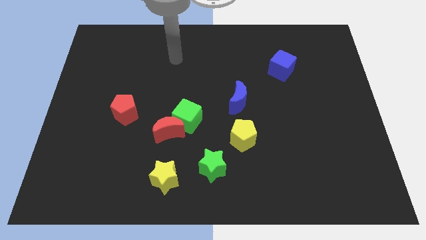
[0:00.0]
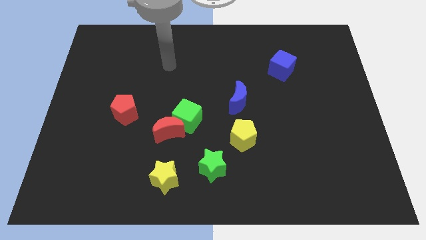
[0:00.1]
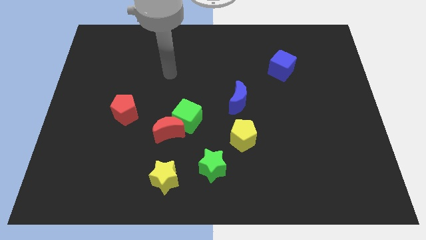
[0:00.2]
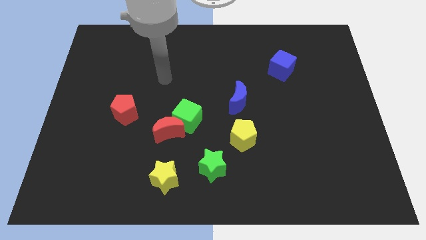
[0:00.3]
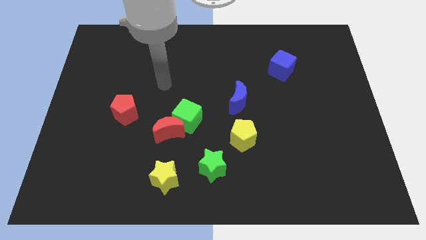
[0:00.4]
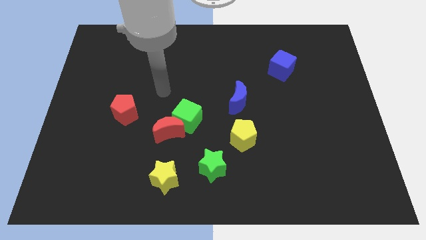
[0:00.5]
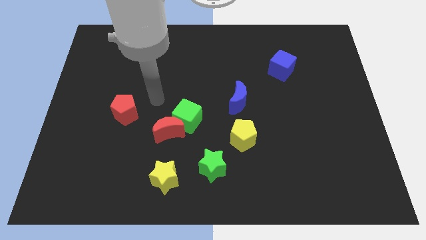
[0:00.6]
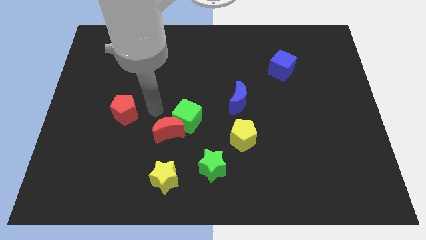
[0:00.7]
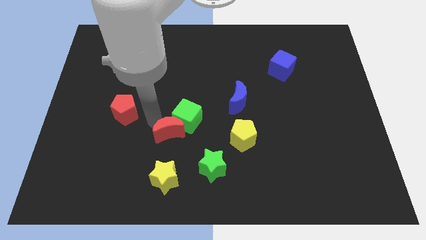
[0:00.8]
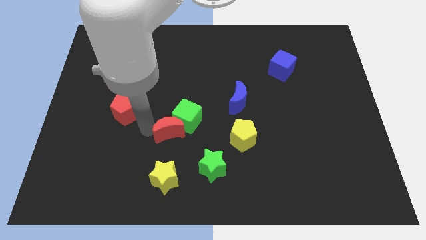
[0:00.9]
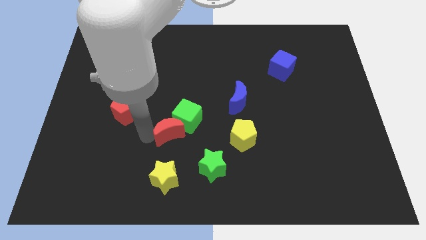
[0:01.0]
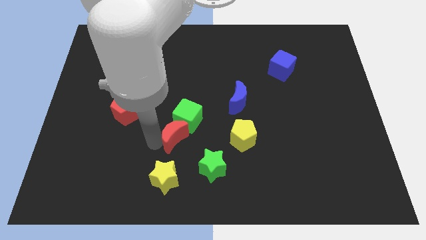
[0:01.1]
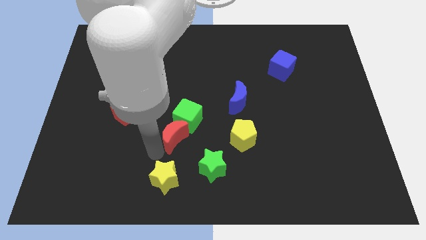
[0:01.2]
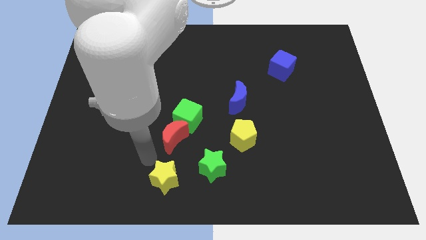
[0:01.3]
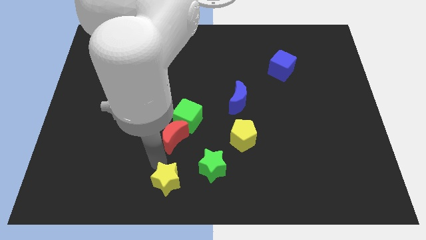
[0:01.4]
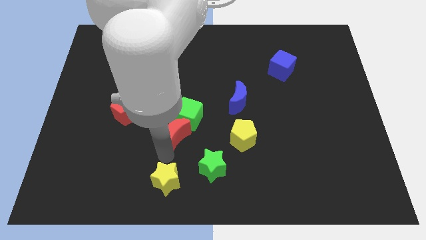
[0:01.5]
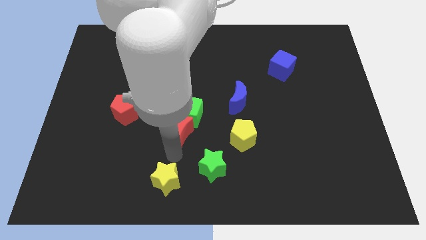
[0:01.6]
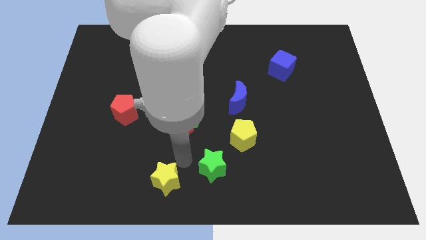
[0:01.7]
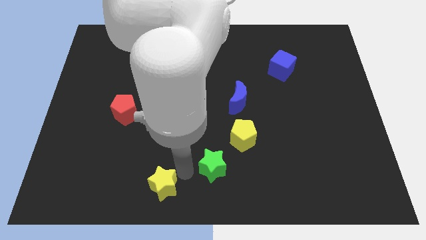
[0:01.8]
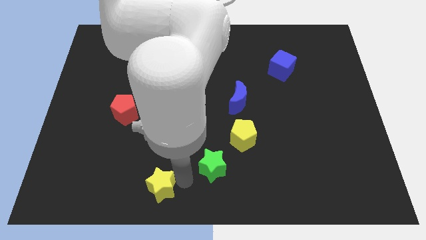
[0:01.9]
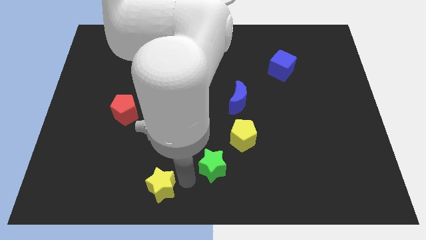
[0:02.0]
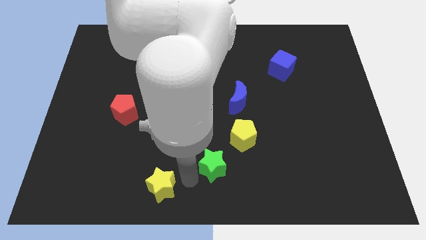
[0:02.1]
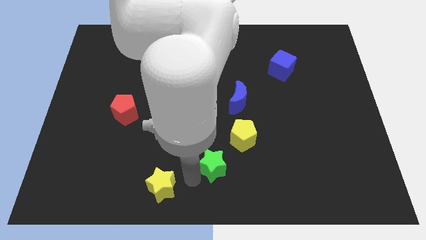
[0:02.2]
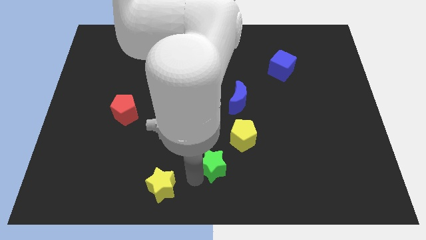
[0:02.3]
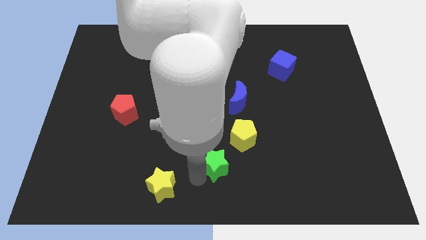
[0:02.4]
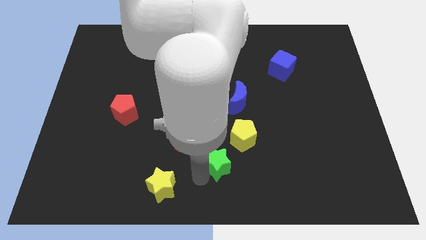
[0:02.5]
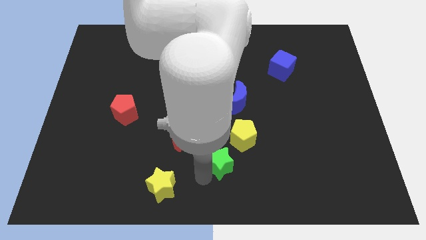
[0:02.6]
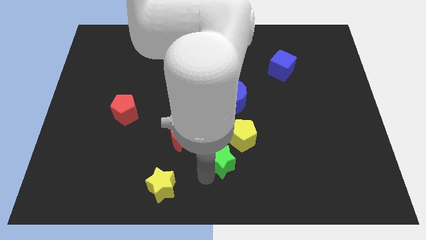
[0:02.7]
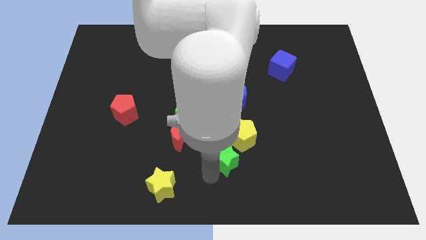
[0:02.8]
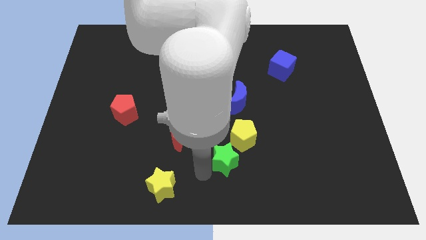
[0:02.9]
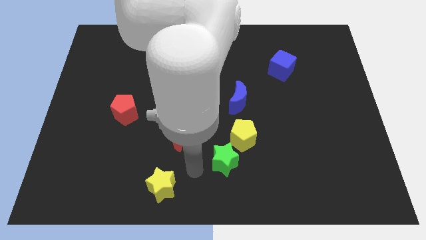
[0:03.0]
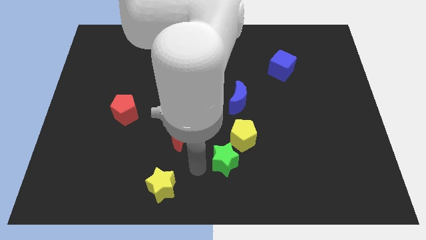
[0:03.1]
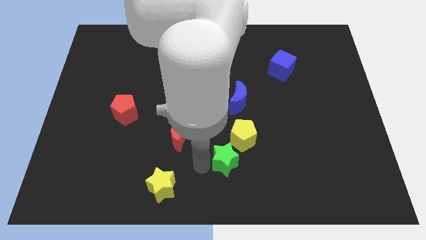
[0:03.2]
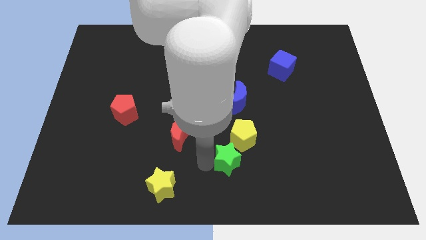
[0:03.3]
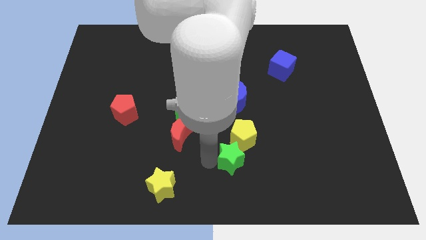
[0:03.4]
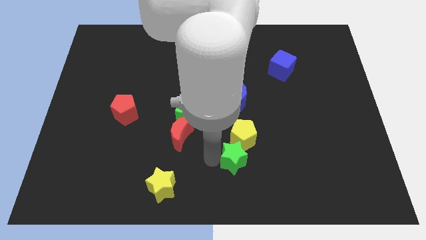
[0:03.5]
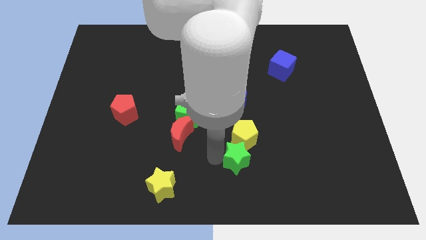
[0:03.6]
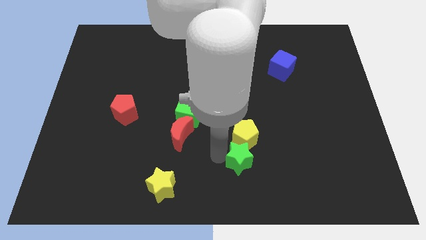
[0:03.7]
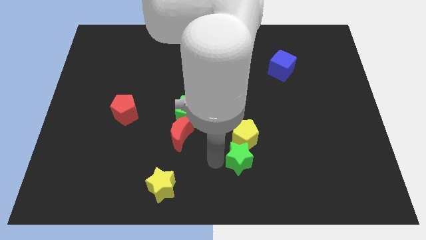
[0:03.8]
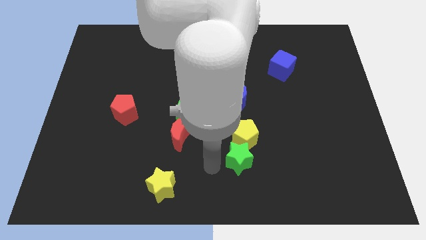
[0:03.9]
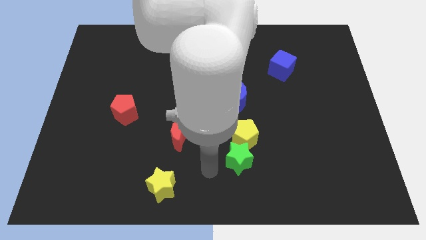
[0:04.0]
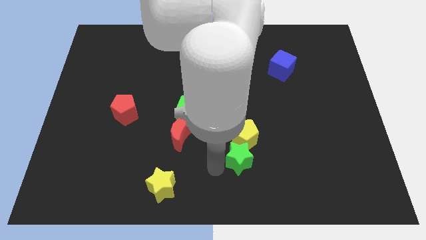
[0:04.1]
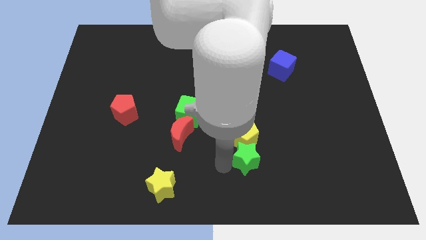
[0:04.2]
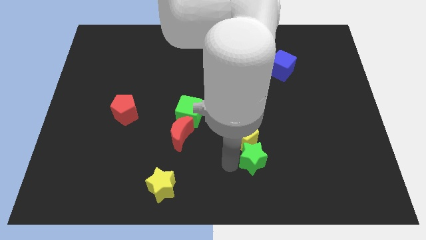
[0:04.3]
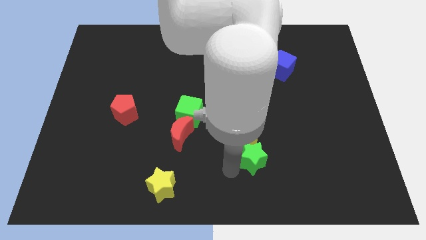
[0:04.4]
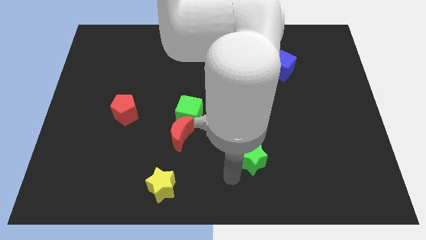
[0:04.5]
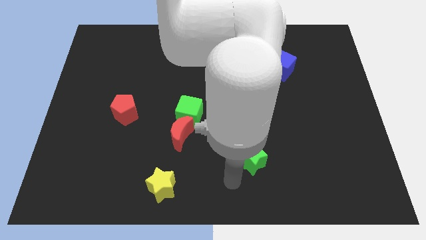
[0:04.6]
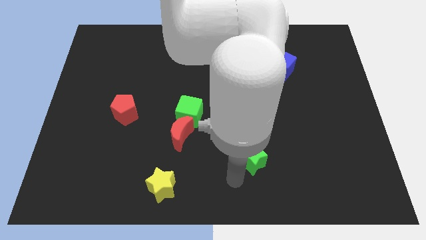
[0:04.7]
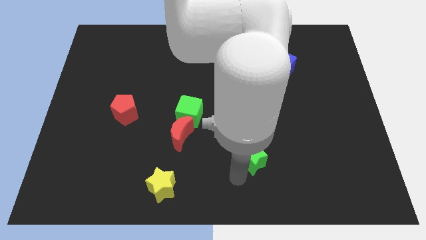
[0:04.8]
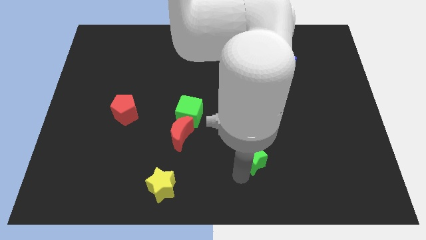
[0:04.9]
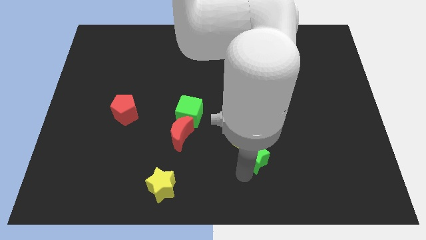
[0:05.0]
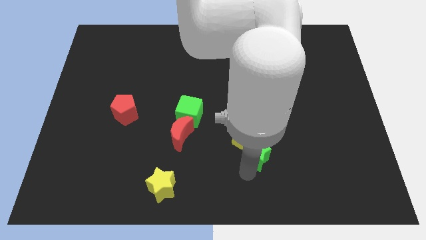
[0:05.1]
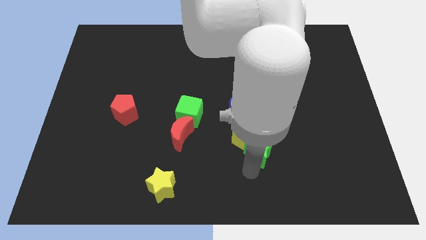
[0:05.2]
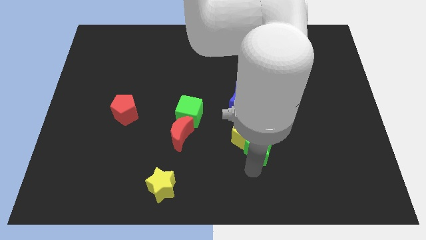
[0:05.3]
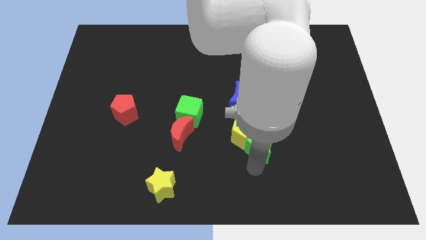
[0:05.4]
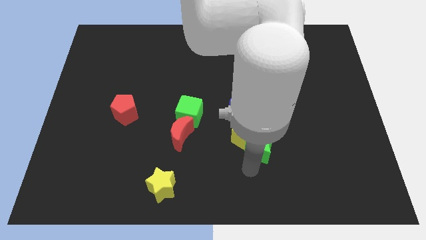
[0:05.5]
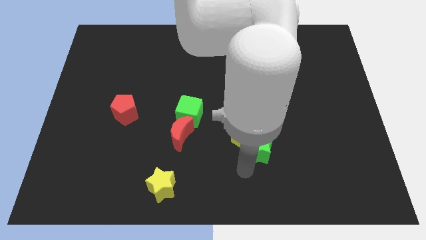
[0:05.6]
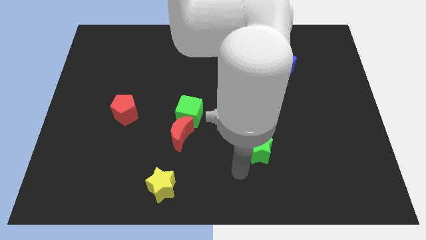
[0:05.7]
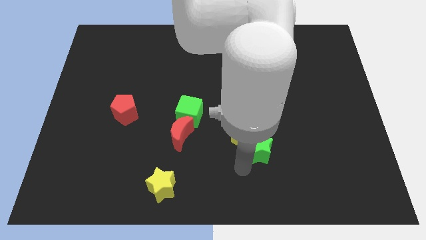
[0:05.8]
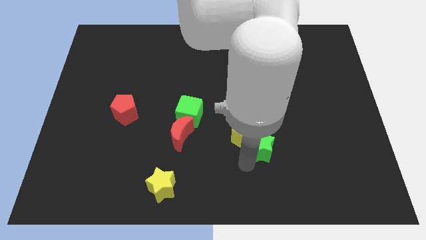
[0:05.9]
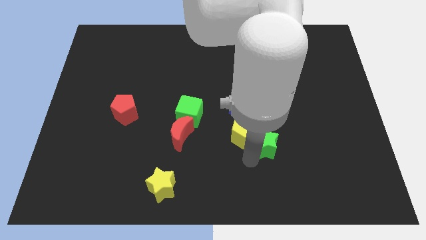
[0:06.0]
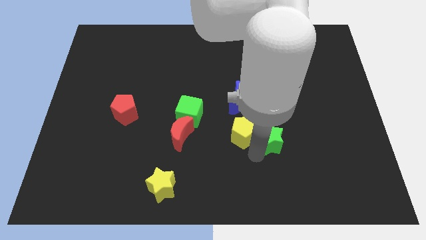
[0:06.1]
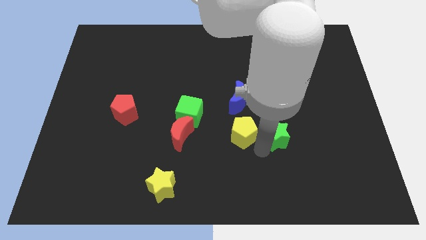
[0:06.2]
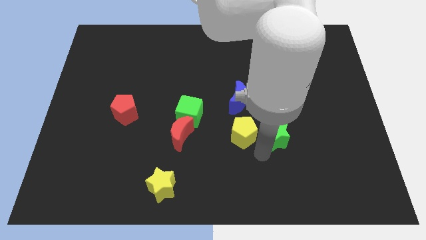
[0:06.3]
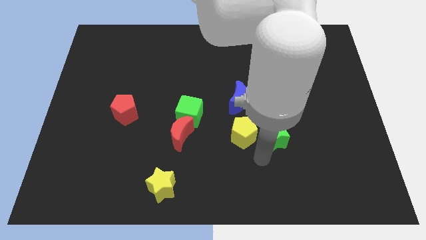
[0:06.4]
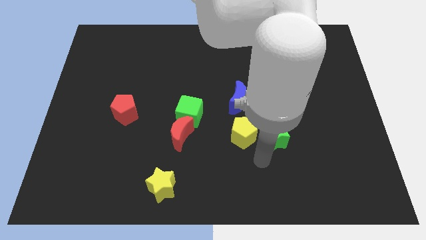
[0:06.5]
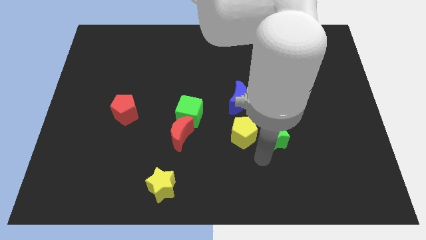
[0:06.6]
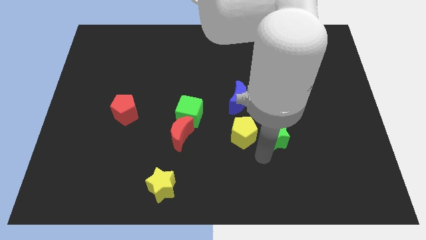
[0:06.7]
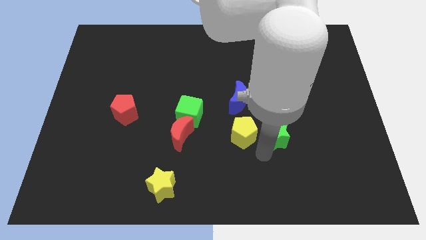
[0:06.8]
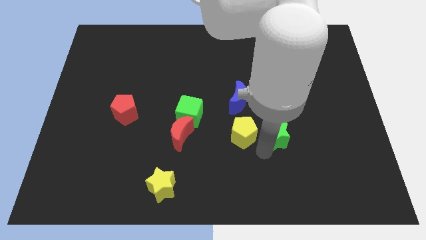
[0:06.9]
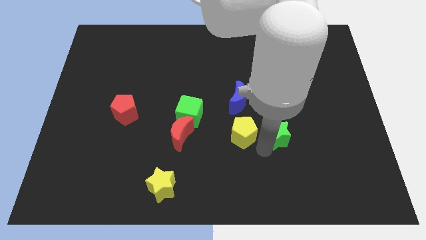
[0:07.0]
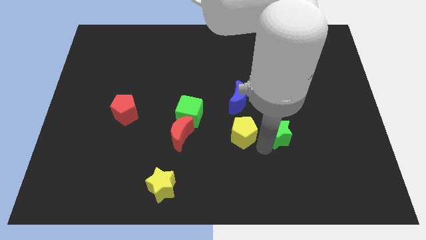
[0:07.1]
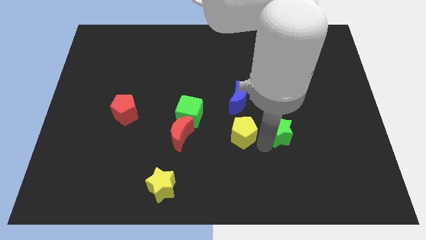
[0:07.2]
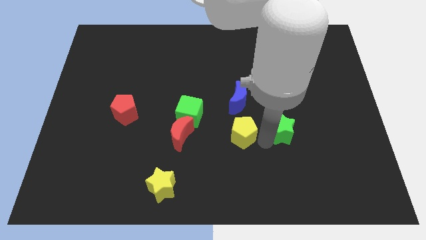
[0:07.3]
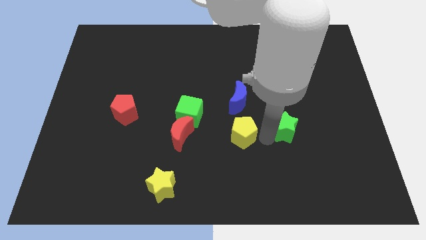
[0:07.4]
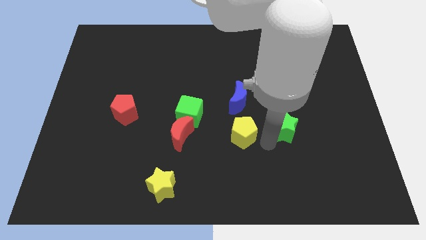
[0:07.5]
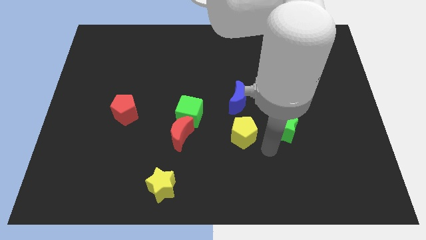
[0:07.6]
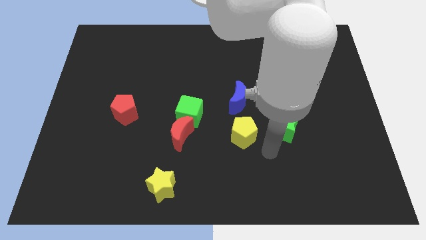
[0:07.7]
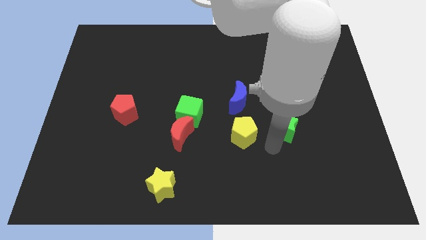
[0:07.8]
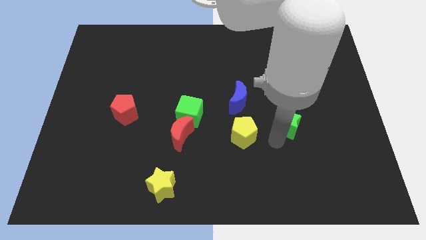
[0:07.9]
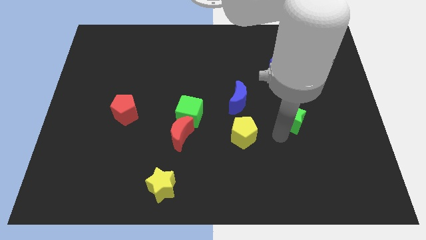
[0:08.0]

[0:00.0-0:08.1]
move the green star up and then to the right

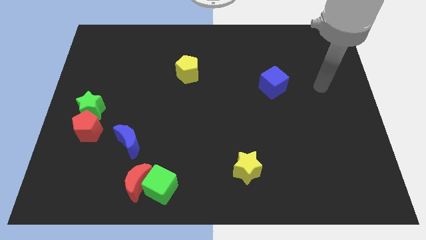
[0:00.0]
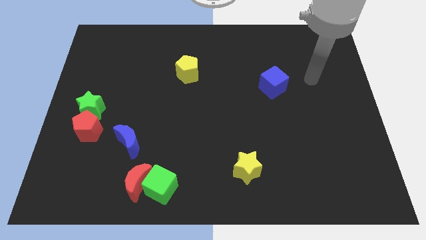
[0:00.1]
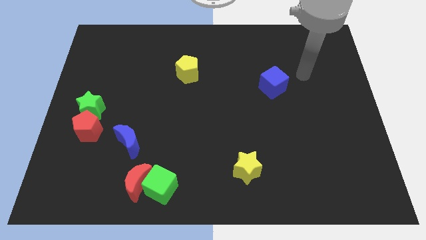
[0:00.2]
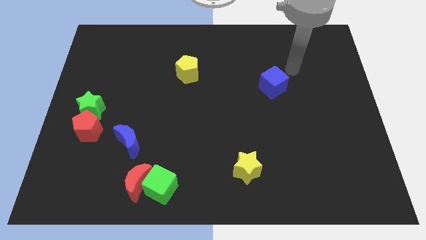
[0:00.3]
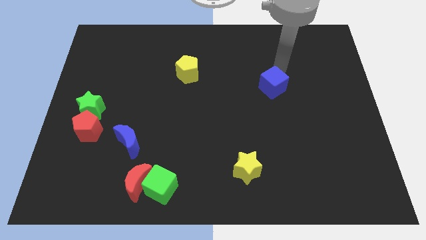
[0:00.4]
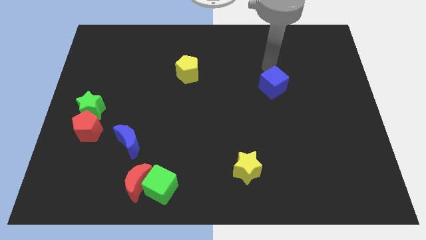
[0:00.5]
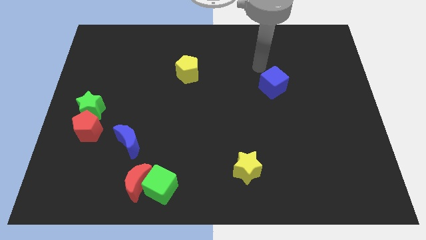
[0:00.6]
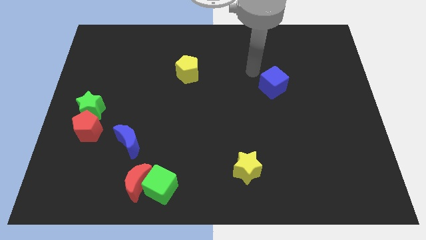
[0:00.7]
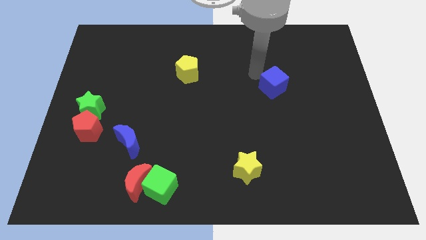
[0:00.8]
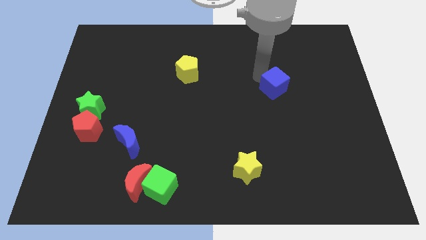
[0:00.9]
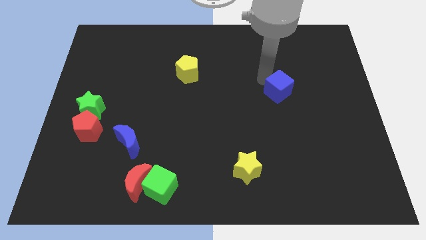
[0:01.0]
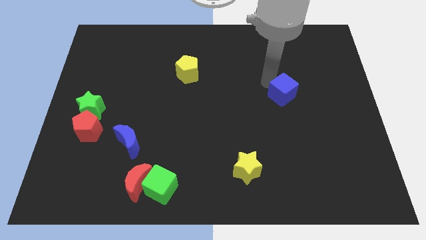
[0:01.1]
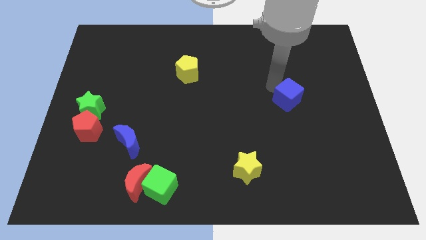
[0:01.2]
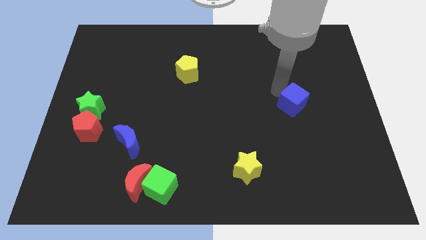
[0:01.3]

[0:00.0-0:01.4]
slide the blue cube a bit downwards and to the right diagonally
